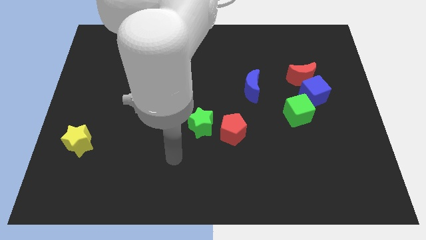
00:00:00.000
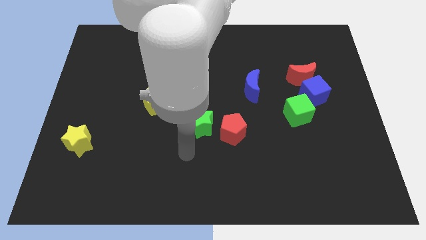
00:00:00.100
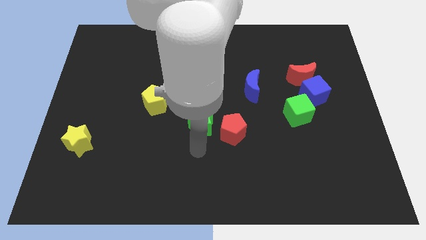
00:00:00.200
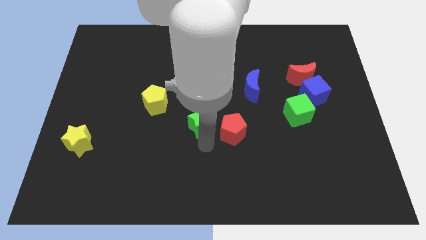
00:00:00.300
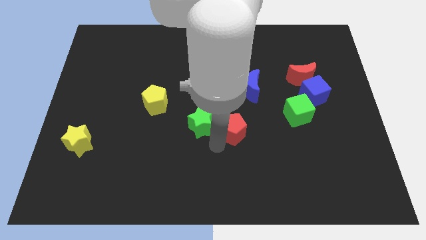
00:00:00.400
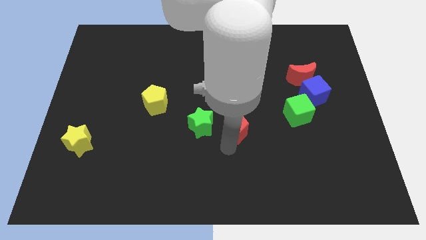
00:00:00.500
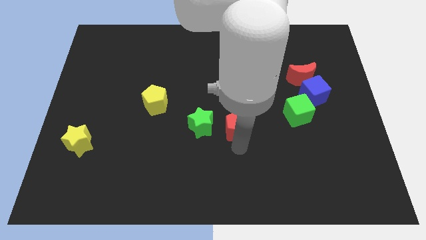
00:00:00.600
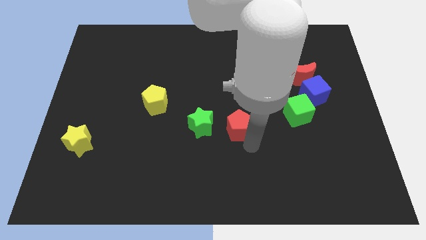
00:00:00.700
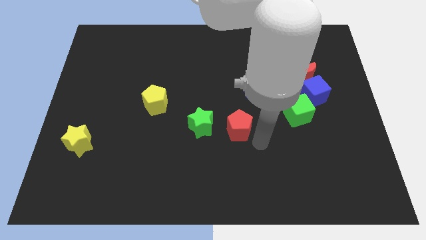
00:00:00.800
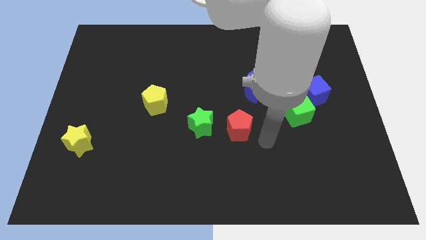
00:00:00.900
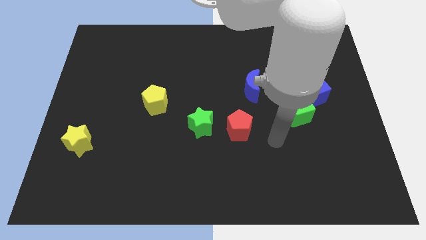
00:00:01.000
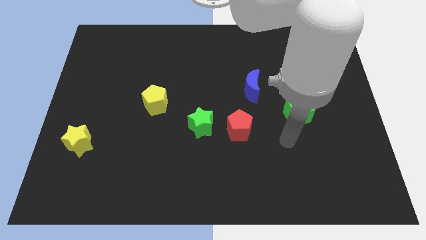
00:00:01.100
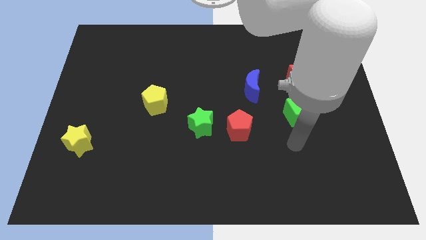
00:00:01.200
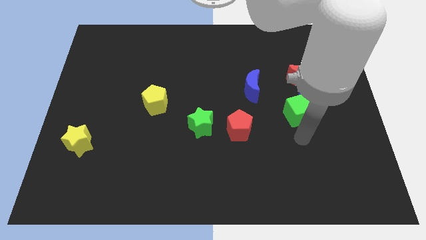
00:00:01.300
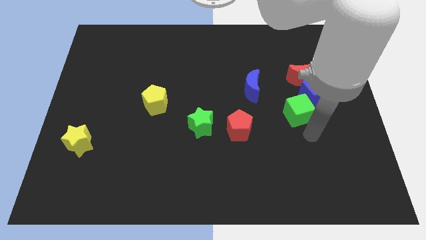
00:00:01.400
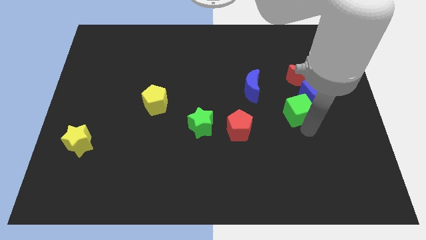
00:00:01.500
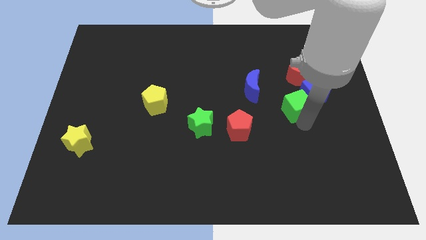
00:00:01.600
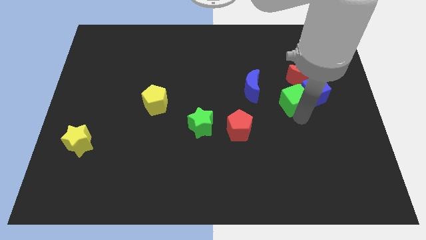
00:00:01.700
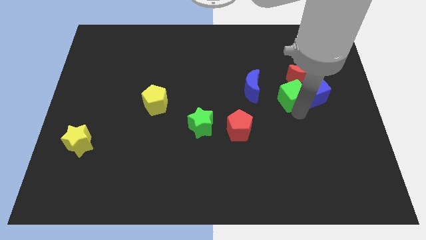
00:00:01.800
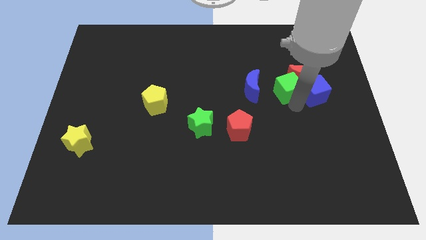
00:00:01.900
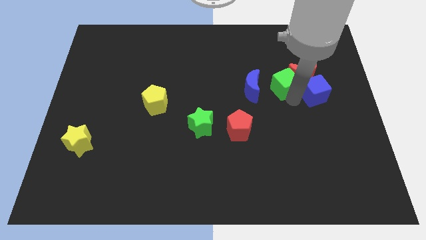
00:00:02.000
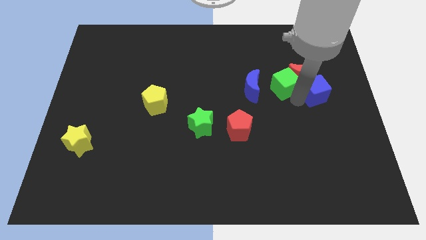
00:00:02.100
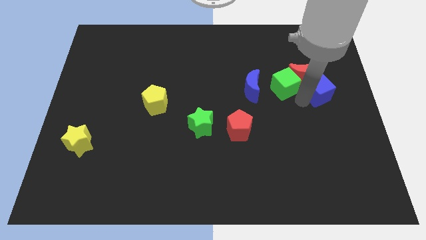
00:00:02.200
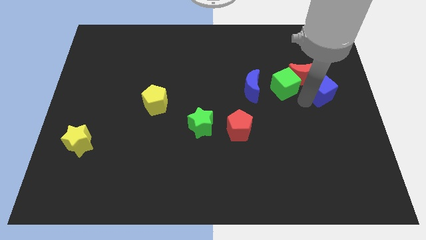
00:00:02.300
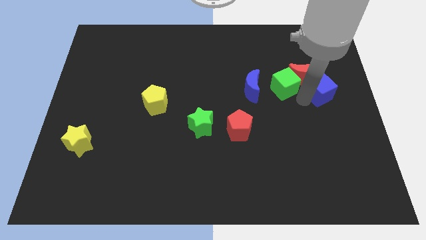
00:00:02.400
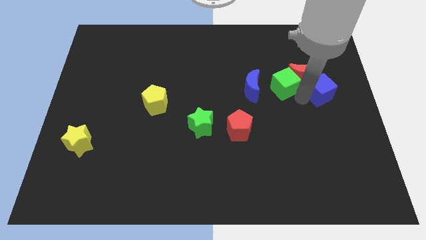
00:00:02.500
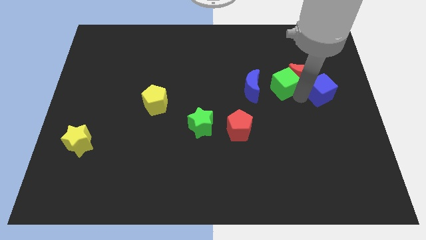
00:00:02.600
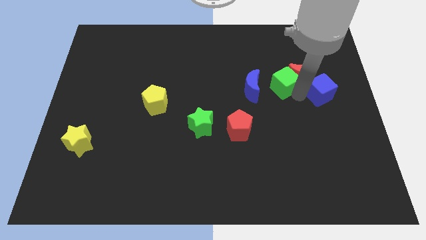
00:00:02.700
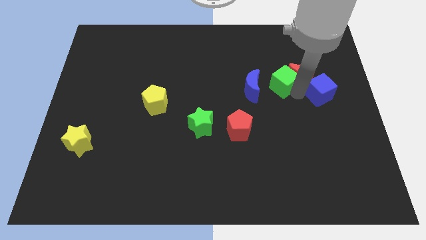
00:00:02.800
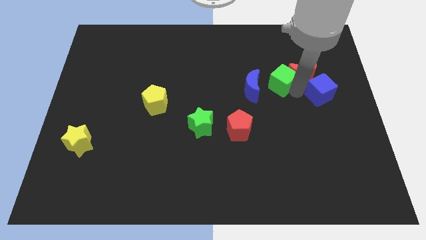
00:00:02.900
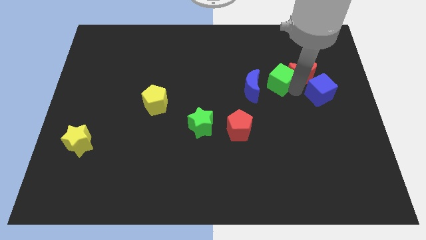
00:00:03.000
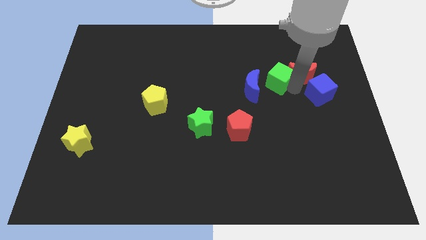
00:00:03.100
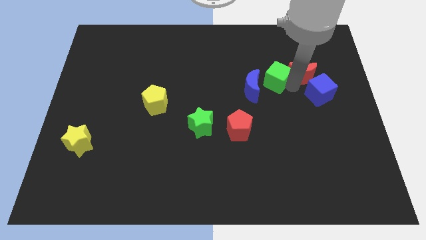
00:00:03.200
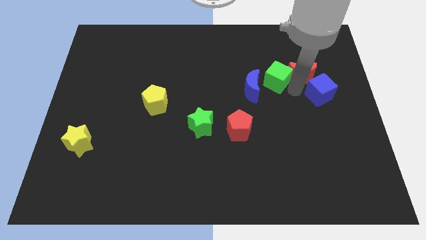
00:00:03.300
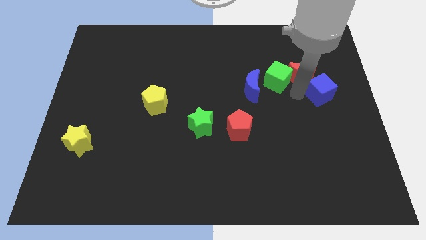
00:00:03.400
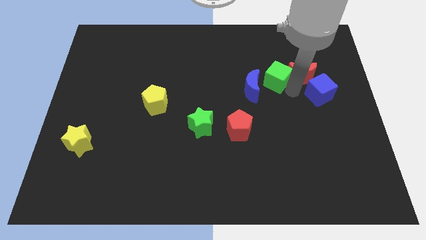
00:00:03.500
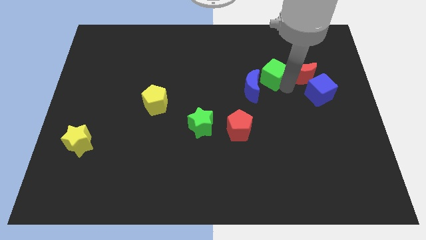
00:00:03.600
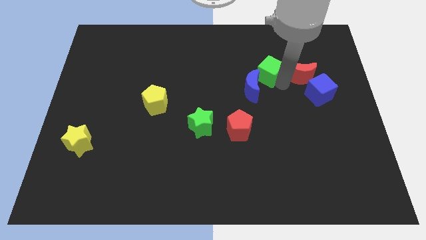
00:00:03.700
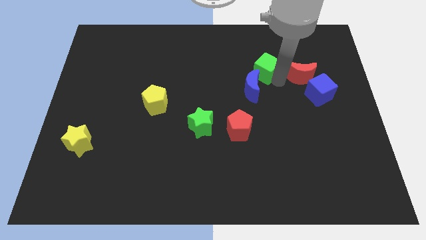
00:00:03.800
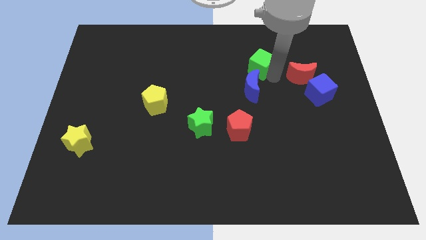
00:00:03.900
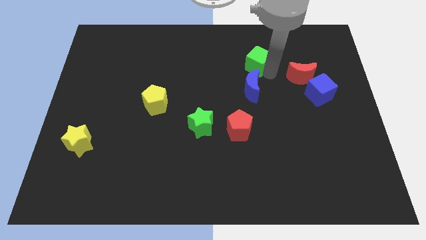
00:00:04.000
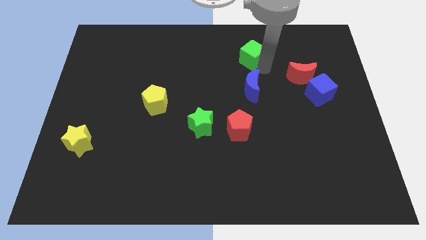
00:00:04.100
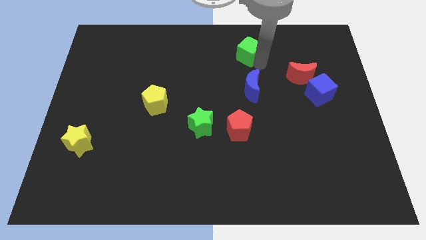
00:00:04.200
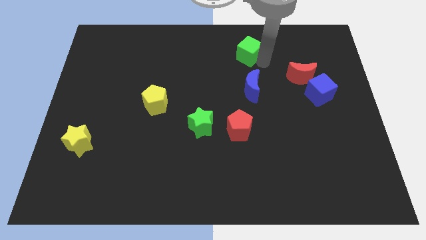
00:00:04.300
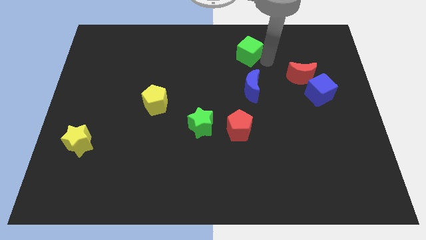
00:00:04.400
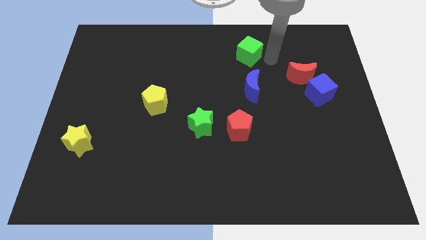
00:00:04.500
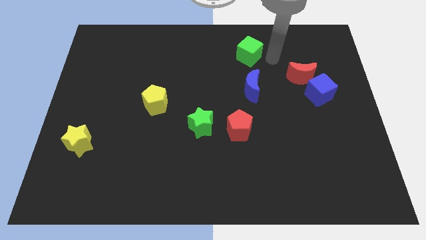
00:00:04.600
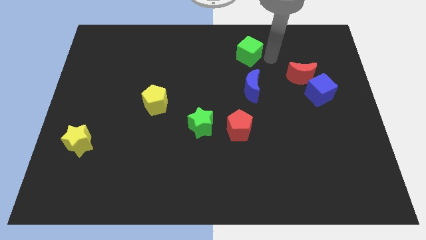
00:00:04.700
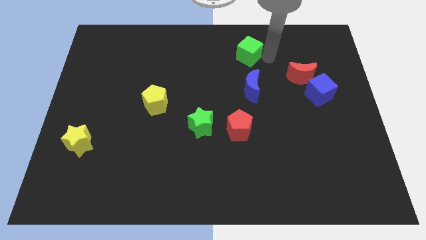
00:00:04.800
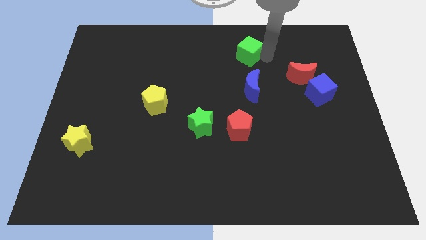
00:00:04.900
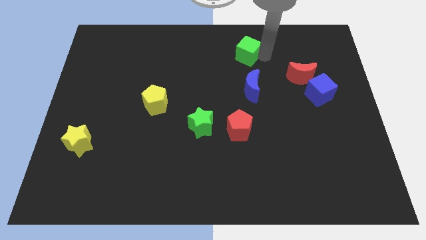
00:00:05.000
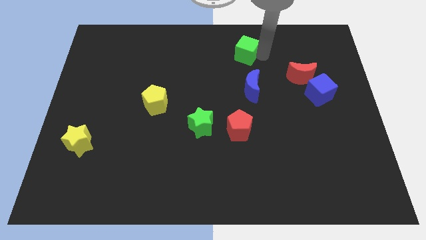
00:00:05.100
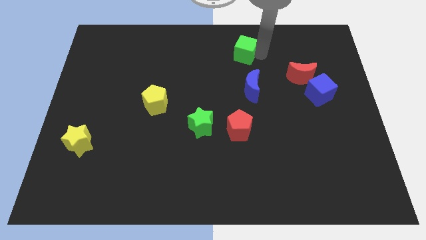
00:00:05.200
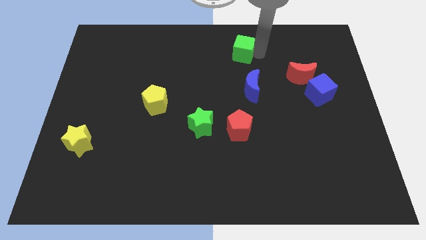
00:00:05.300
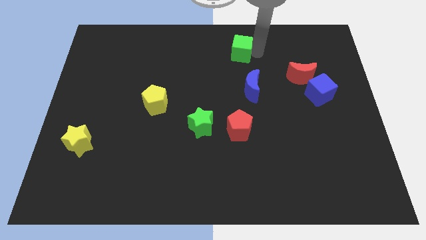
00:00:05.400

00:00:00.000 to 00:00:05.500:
push the green cube to the towards your base

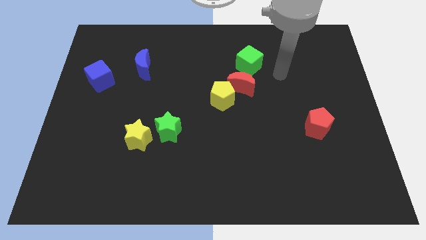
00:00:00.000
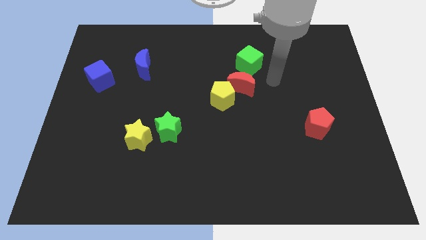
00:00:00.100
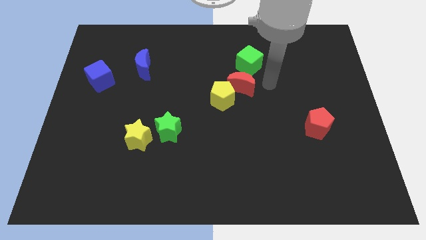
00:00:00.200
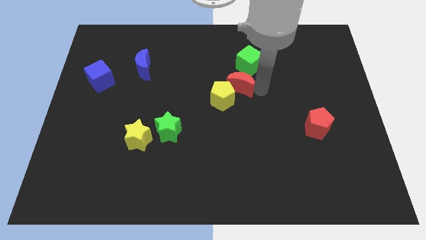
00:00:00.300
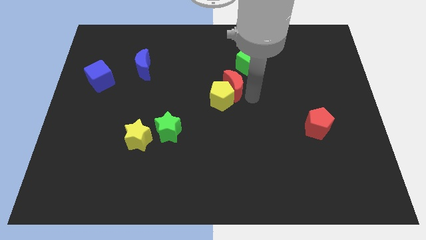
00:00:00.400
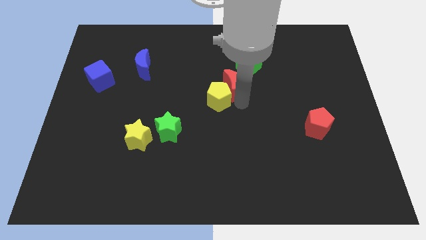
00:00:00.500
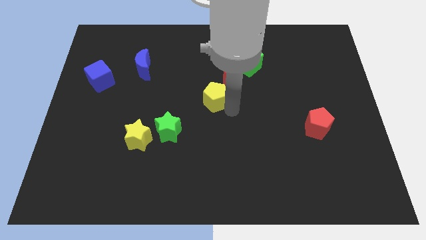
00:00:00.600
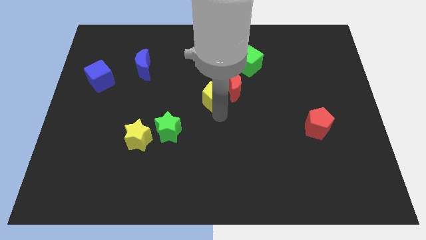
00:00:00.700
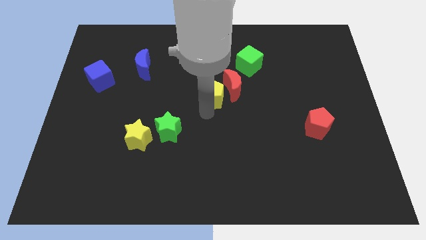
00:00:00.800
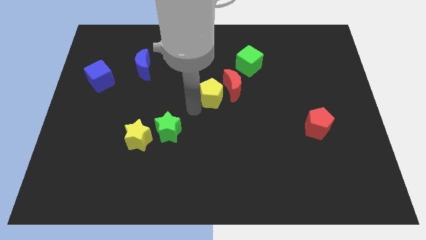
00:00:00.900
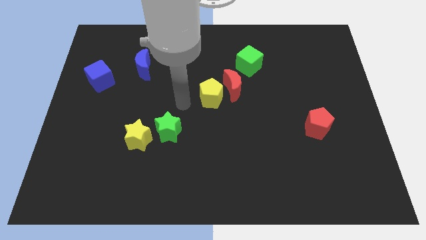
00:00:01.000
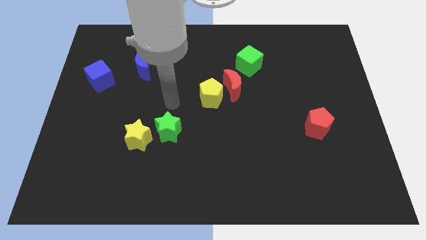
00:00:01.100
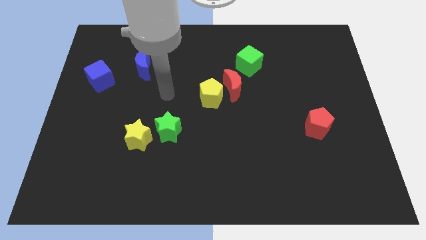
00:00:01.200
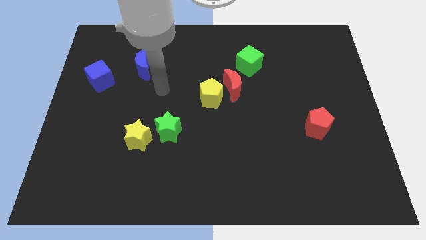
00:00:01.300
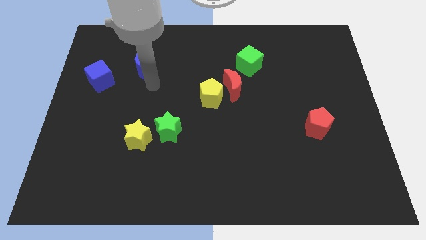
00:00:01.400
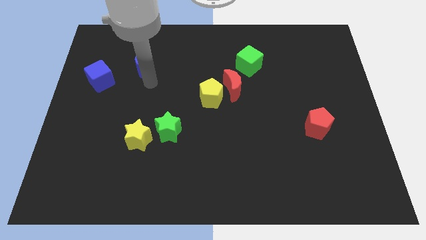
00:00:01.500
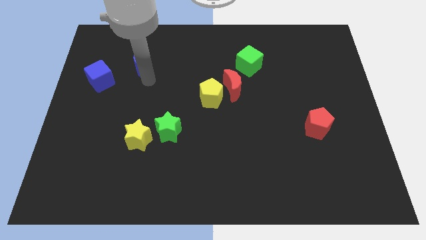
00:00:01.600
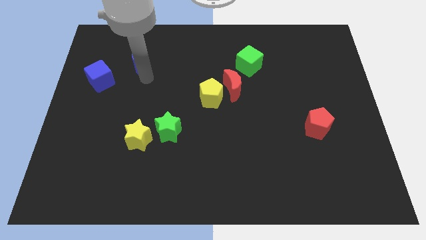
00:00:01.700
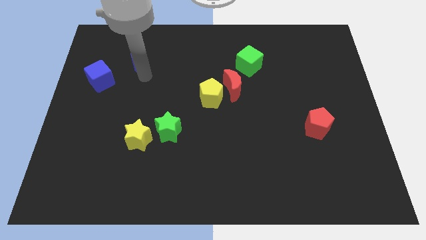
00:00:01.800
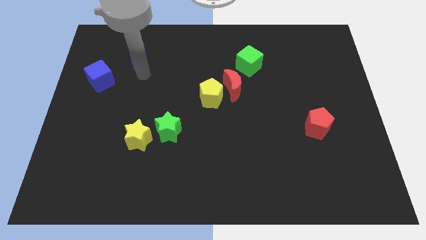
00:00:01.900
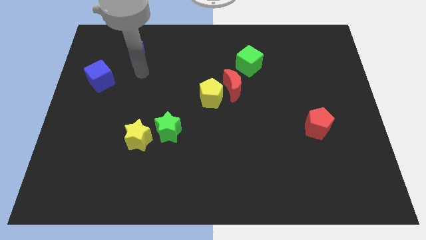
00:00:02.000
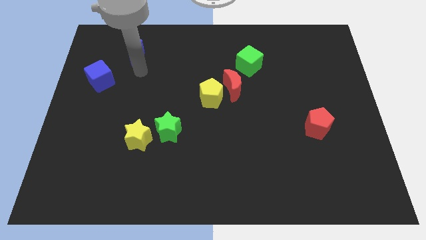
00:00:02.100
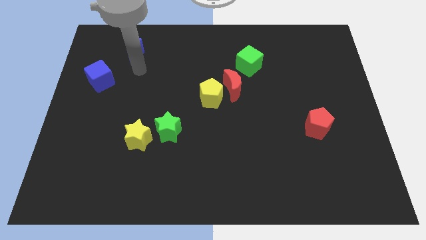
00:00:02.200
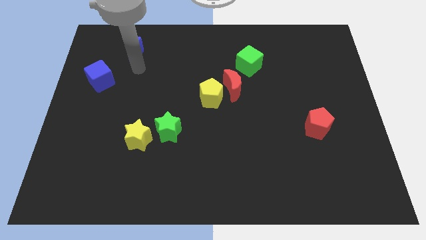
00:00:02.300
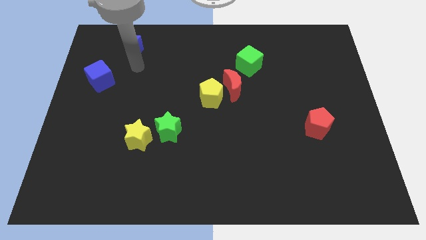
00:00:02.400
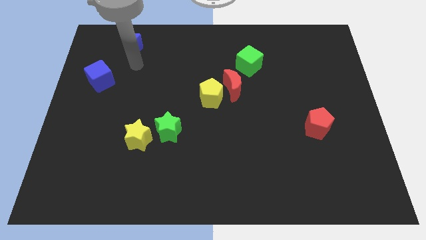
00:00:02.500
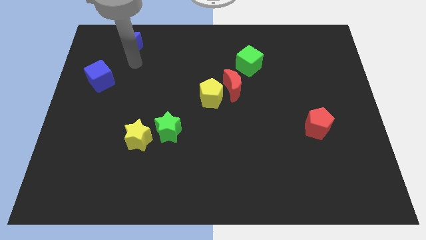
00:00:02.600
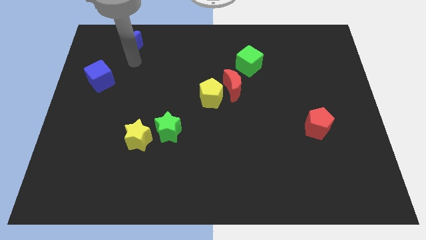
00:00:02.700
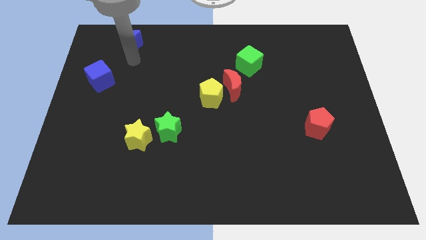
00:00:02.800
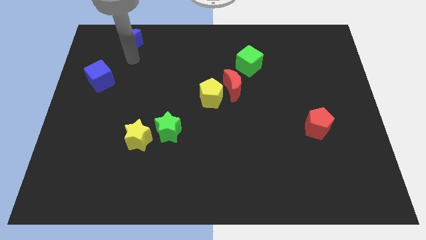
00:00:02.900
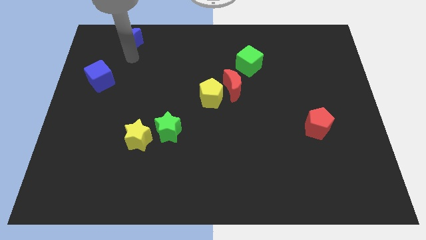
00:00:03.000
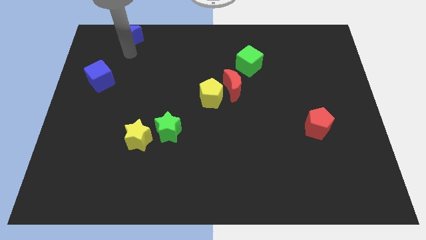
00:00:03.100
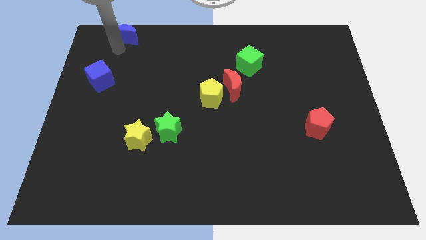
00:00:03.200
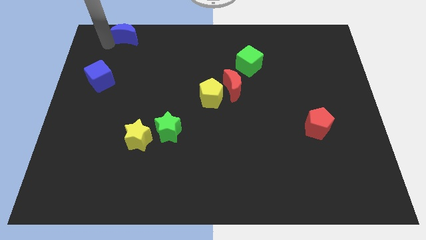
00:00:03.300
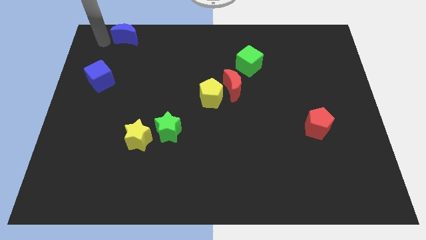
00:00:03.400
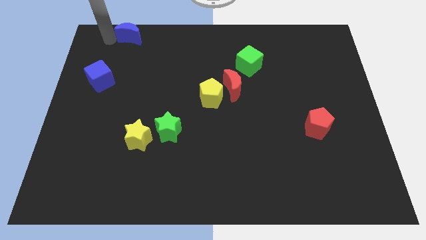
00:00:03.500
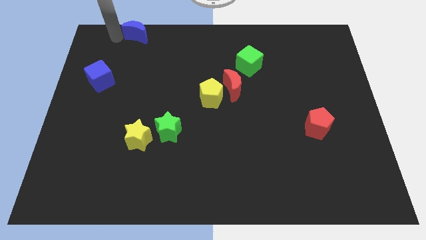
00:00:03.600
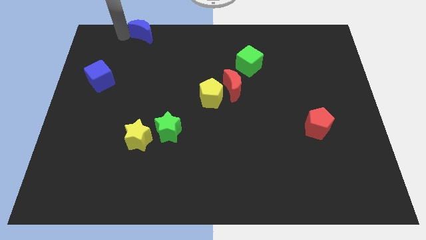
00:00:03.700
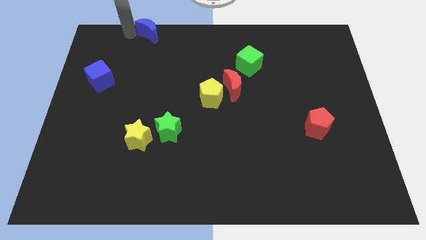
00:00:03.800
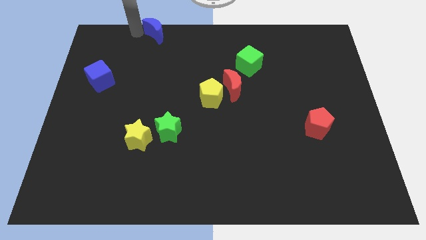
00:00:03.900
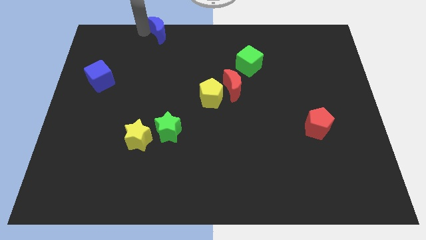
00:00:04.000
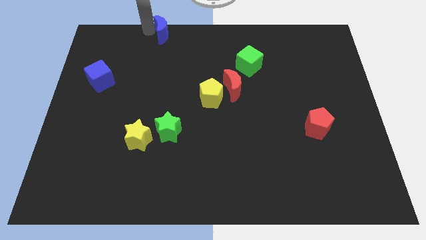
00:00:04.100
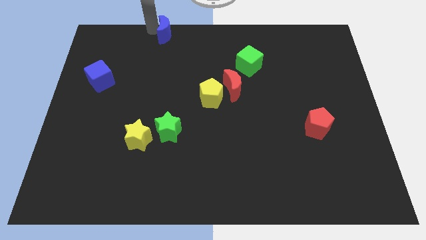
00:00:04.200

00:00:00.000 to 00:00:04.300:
push the blue moon to the top
